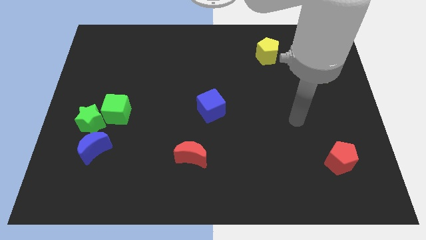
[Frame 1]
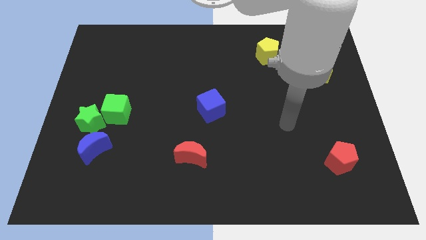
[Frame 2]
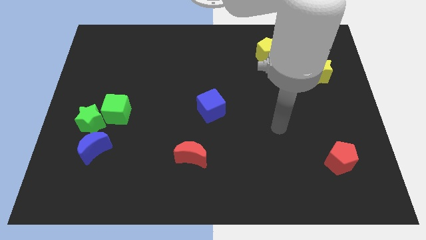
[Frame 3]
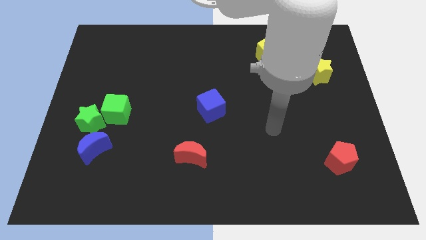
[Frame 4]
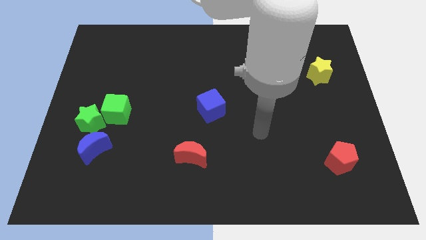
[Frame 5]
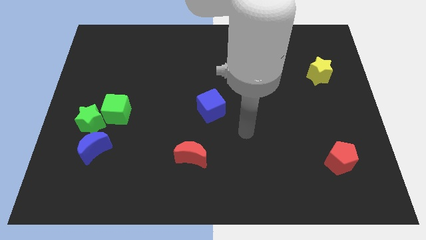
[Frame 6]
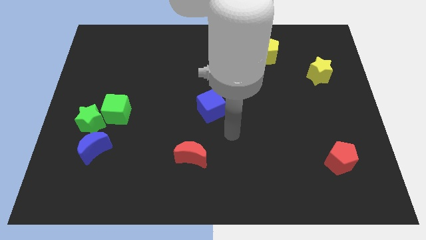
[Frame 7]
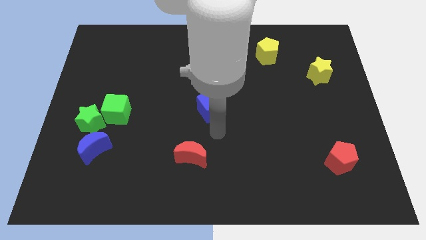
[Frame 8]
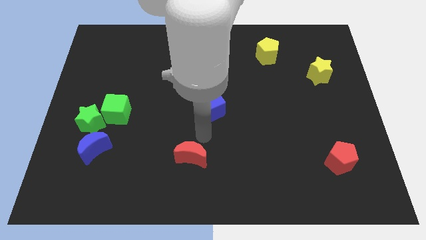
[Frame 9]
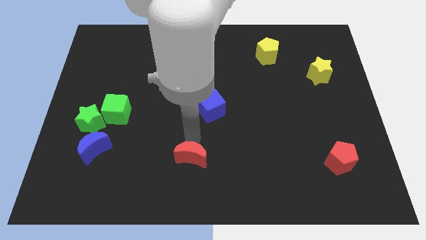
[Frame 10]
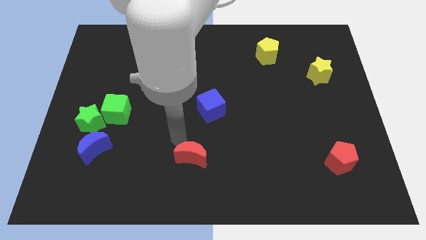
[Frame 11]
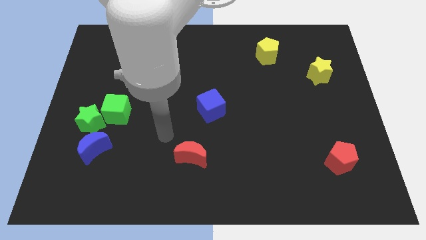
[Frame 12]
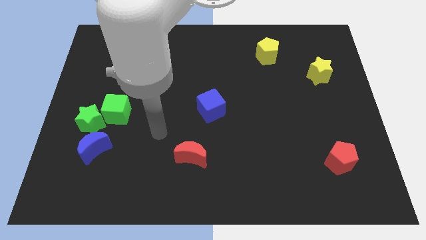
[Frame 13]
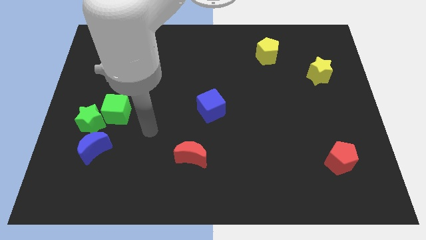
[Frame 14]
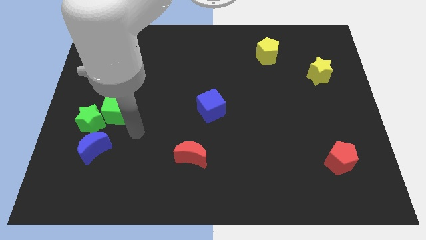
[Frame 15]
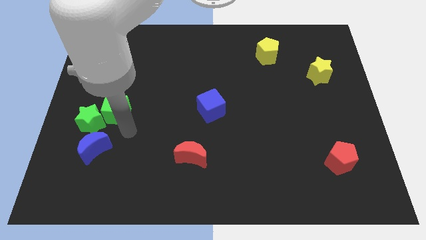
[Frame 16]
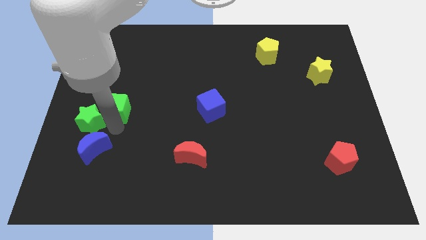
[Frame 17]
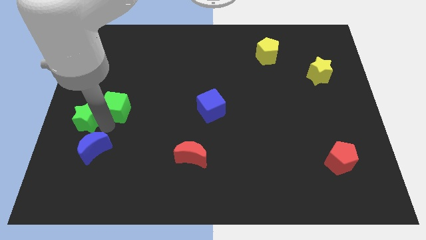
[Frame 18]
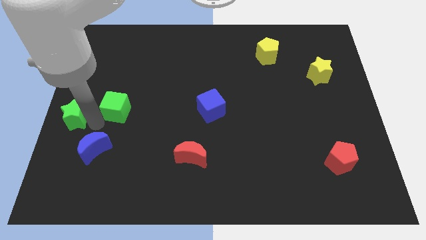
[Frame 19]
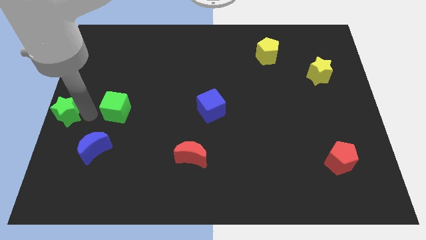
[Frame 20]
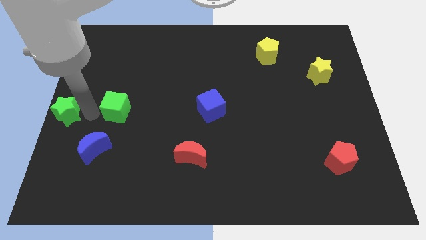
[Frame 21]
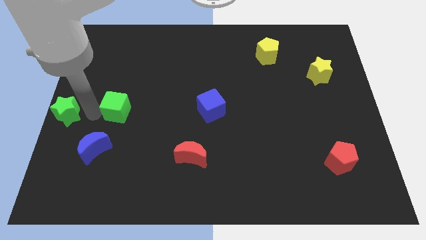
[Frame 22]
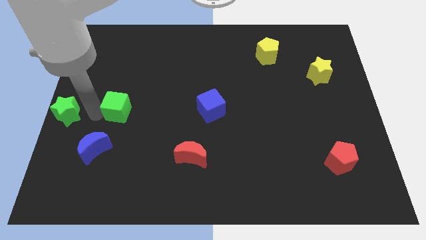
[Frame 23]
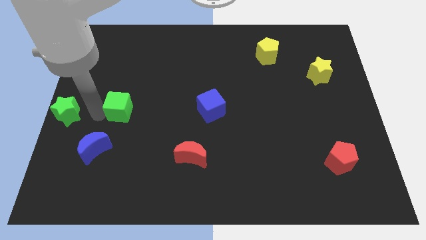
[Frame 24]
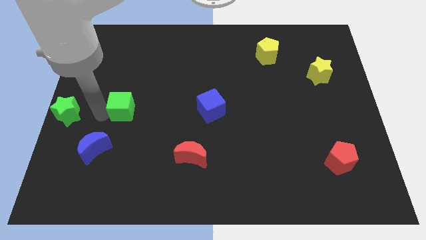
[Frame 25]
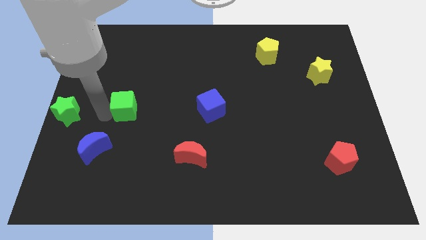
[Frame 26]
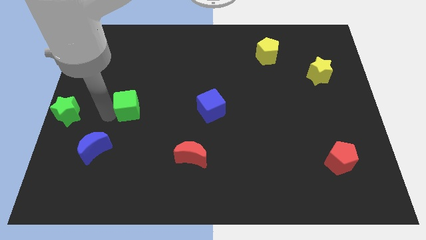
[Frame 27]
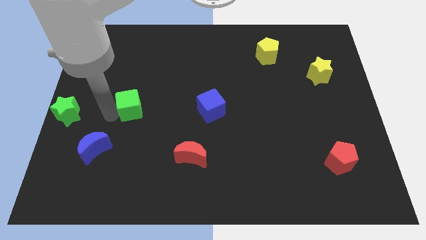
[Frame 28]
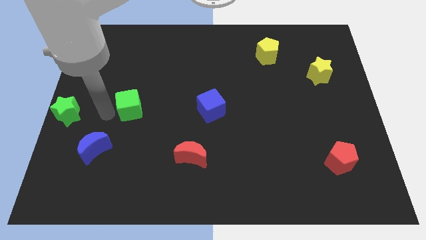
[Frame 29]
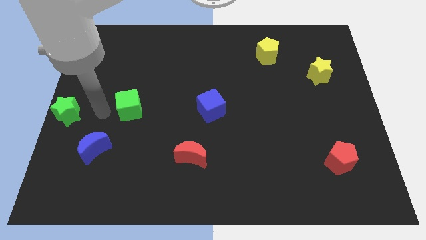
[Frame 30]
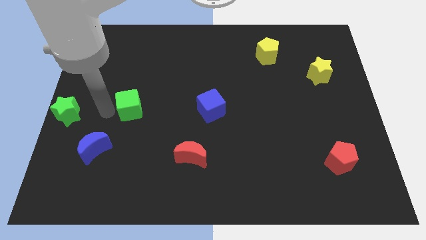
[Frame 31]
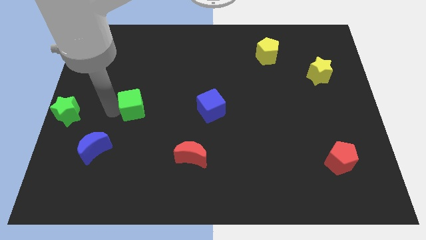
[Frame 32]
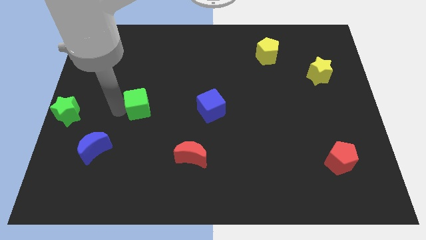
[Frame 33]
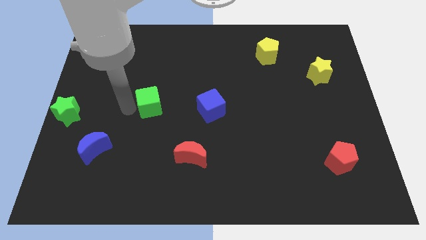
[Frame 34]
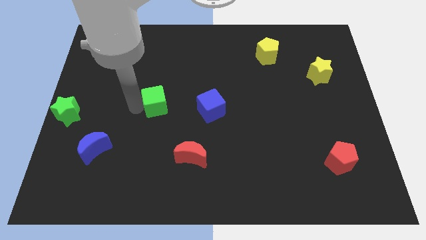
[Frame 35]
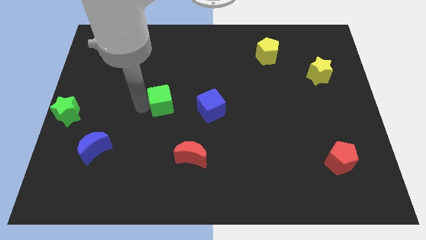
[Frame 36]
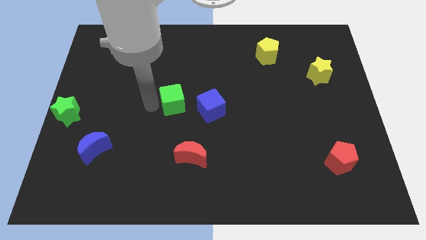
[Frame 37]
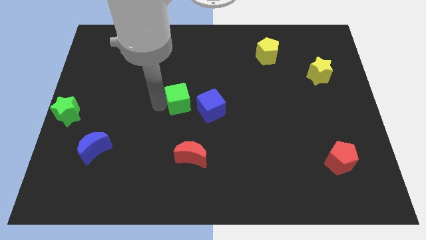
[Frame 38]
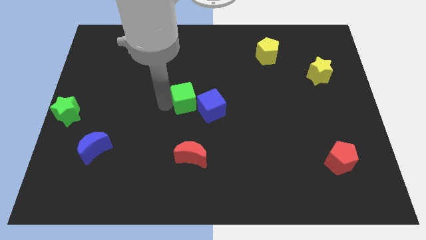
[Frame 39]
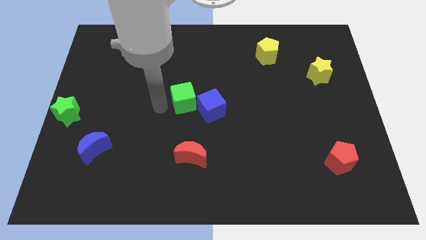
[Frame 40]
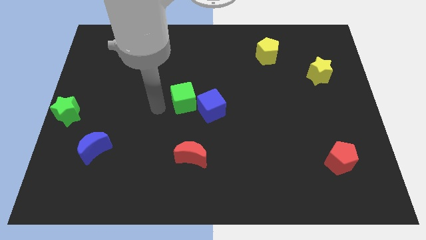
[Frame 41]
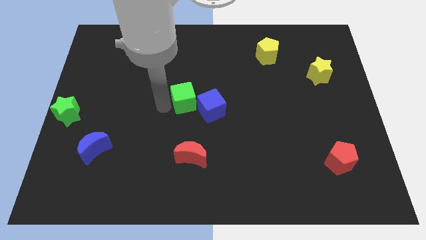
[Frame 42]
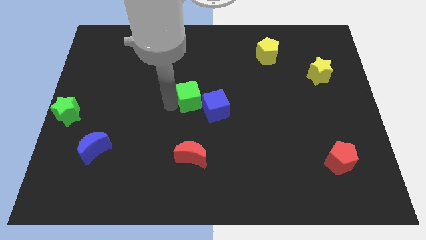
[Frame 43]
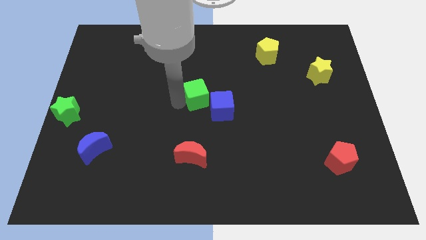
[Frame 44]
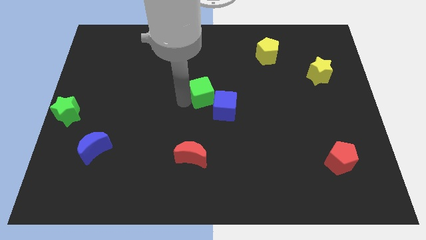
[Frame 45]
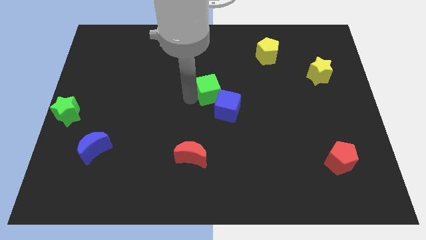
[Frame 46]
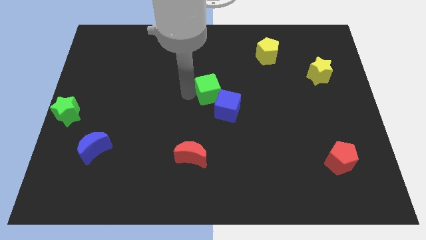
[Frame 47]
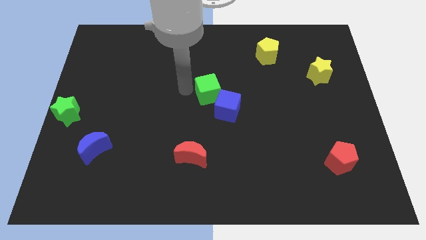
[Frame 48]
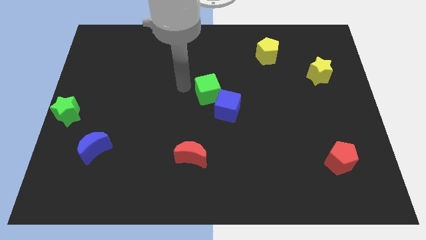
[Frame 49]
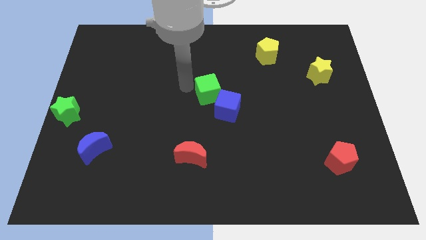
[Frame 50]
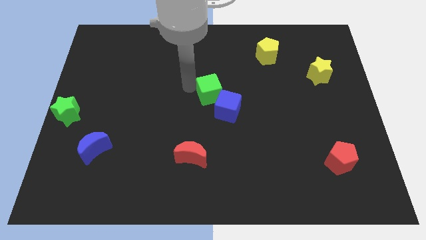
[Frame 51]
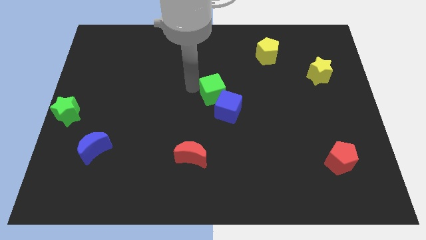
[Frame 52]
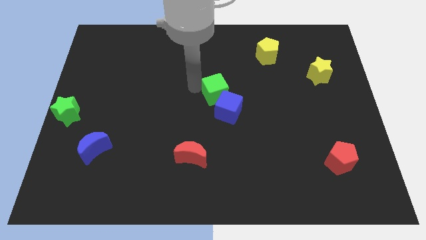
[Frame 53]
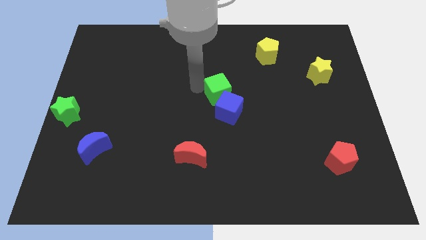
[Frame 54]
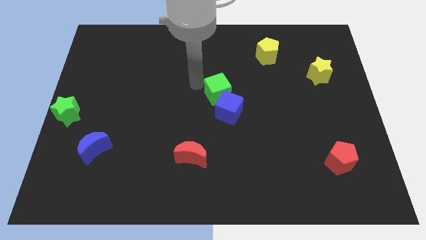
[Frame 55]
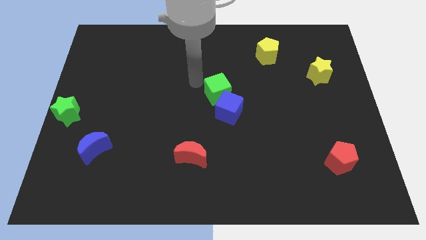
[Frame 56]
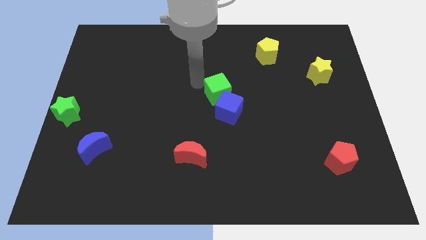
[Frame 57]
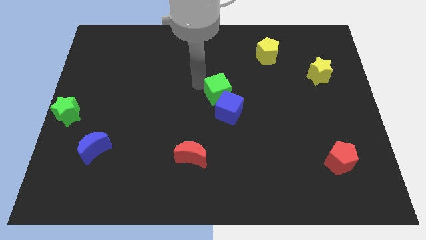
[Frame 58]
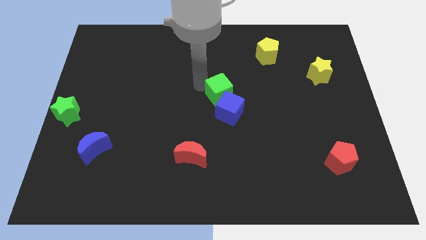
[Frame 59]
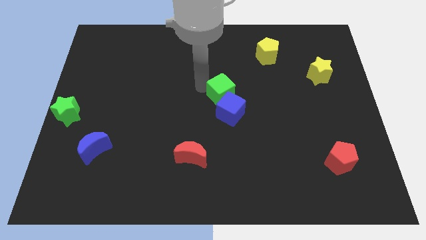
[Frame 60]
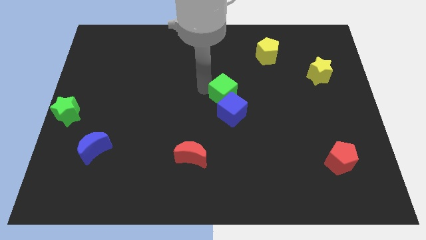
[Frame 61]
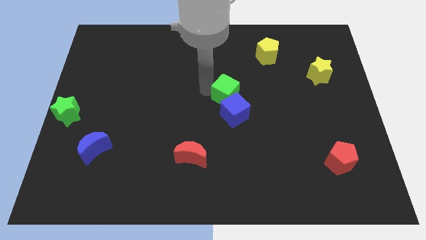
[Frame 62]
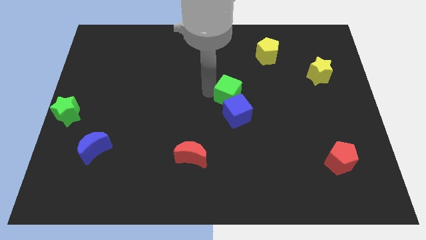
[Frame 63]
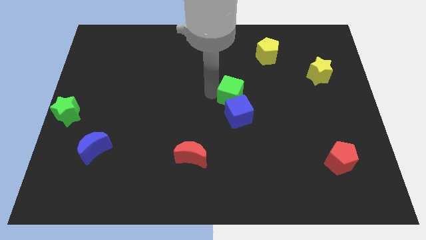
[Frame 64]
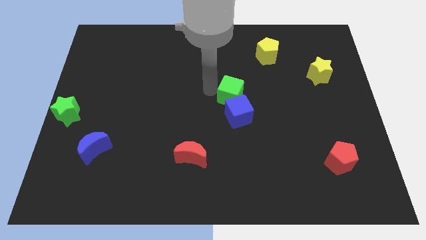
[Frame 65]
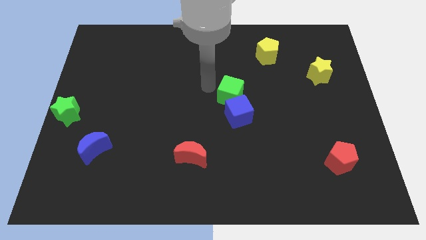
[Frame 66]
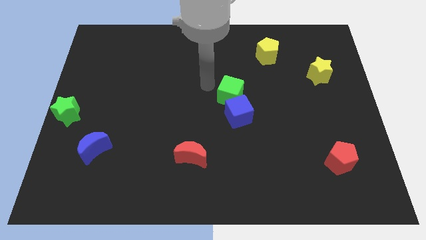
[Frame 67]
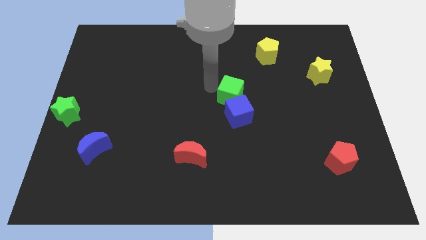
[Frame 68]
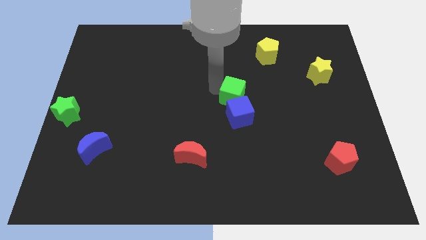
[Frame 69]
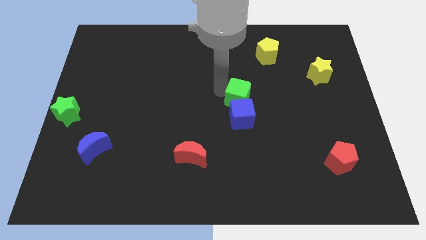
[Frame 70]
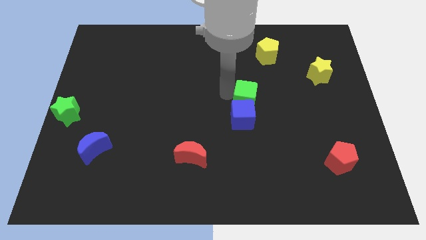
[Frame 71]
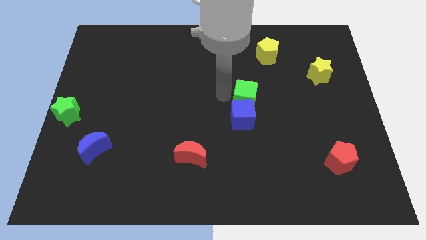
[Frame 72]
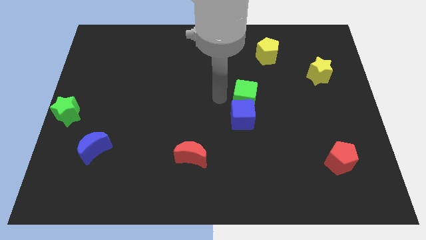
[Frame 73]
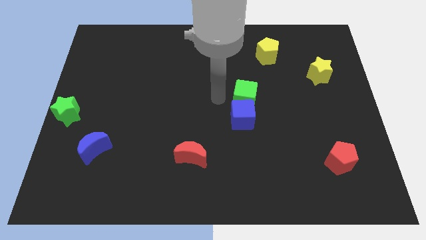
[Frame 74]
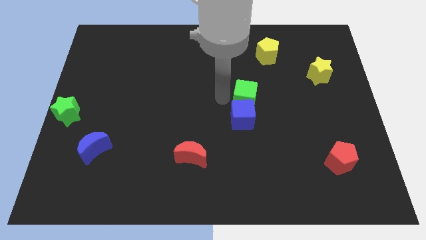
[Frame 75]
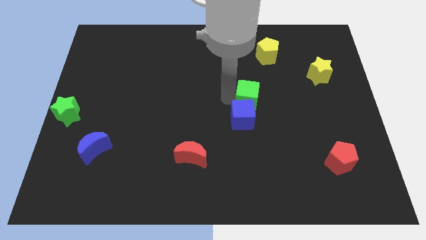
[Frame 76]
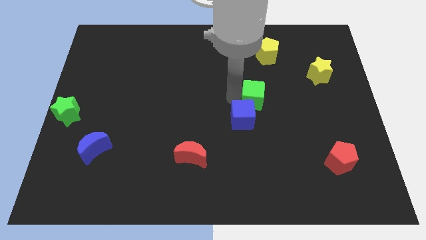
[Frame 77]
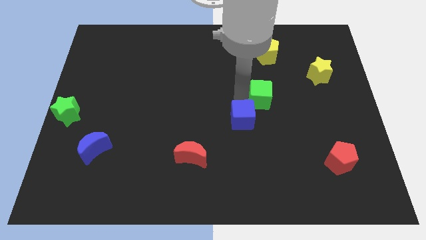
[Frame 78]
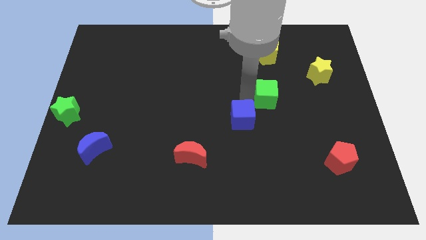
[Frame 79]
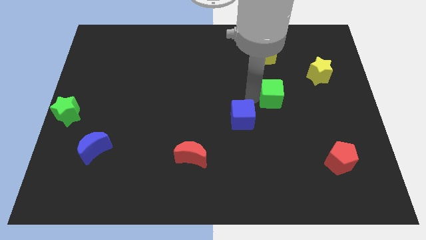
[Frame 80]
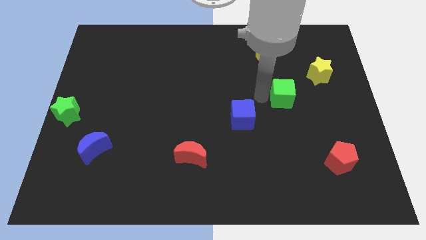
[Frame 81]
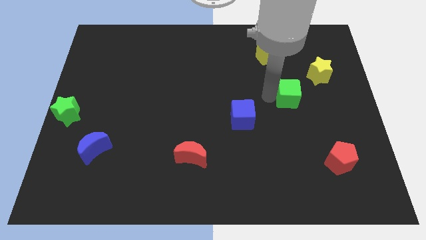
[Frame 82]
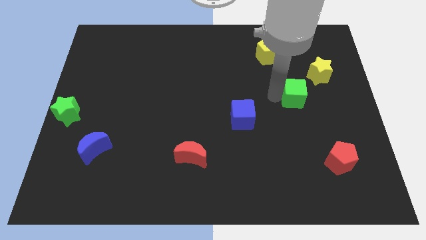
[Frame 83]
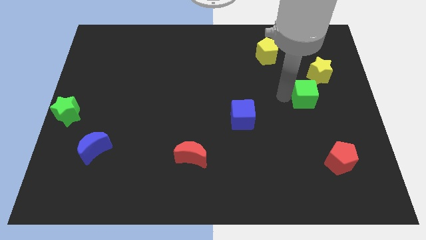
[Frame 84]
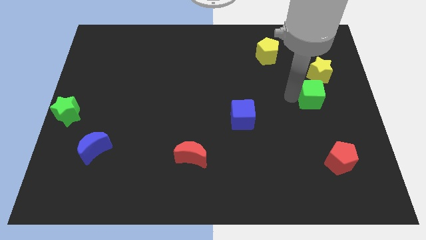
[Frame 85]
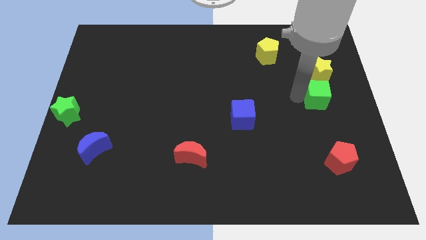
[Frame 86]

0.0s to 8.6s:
put the green cube to the right side
